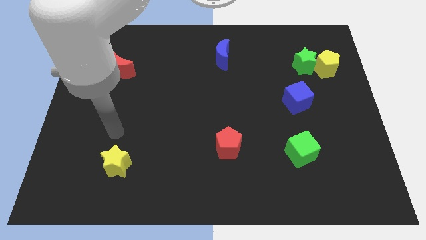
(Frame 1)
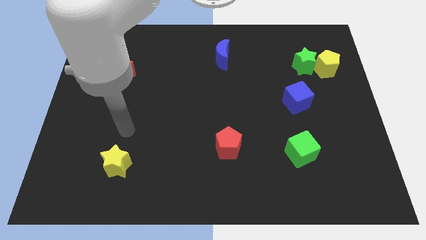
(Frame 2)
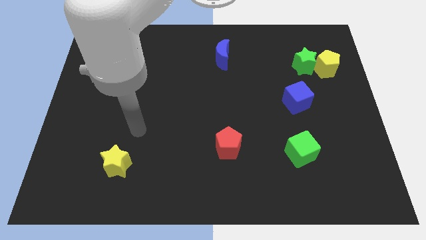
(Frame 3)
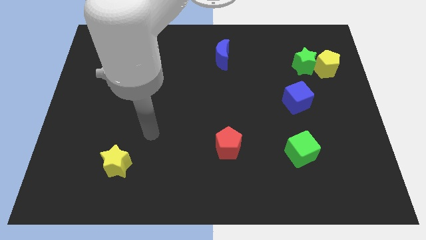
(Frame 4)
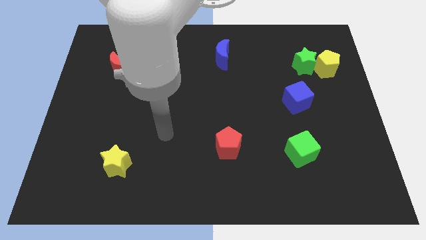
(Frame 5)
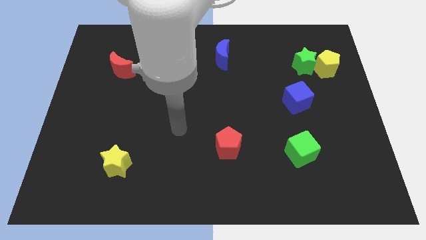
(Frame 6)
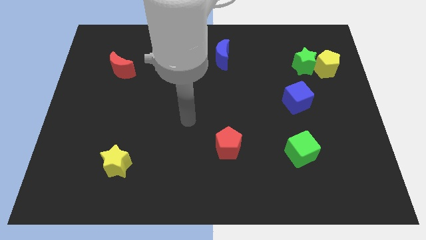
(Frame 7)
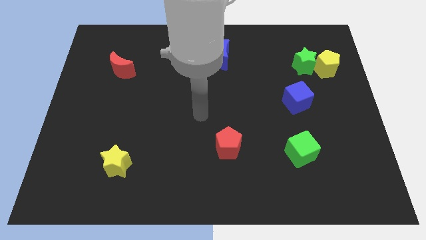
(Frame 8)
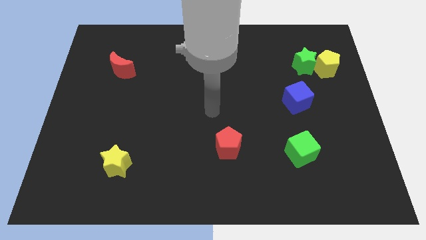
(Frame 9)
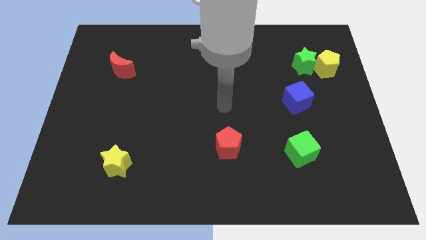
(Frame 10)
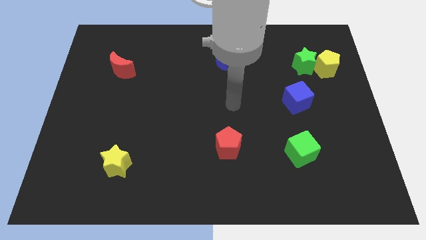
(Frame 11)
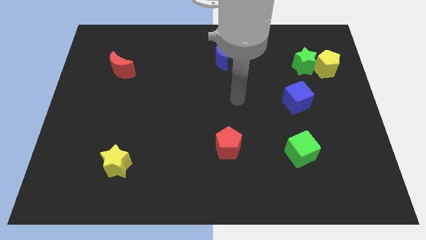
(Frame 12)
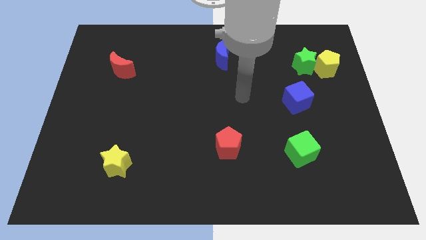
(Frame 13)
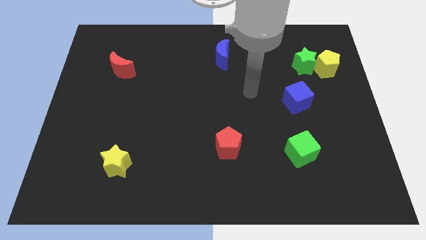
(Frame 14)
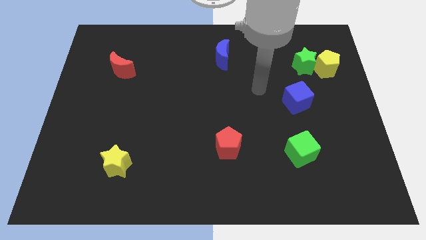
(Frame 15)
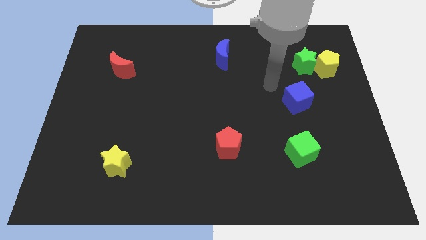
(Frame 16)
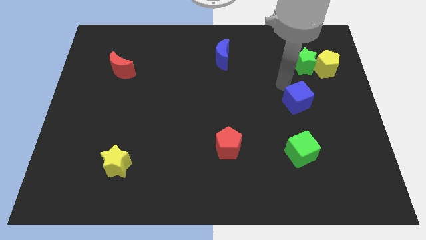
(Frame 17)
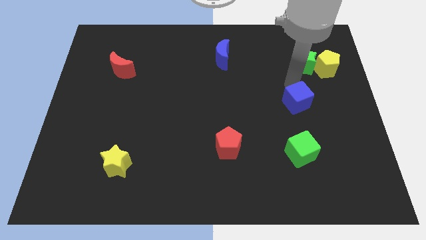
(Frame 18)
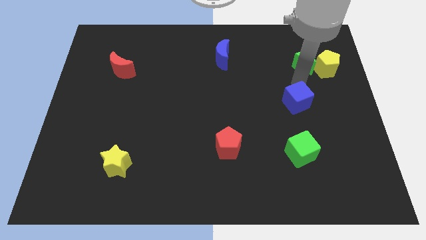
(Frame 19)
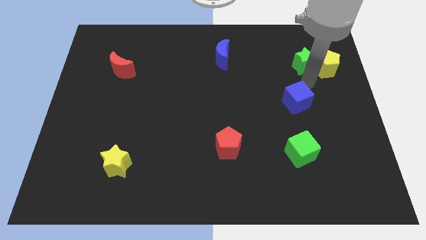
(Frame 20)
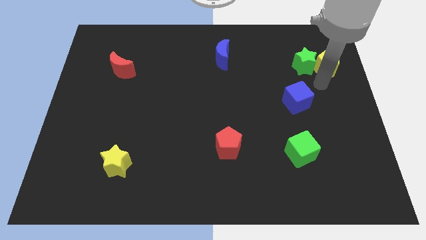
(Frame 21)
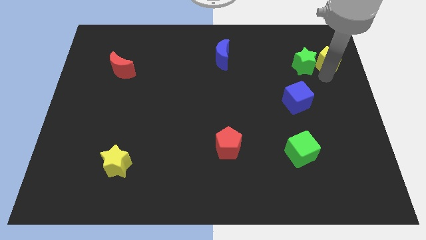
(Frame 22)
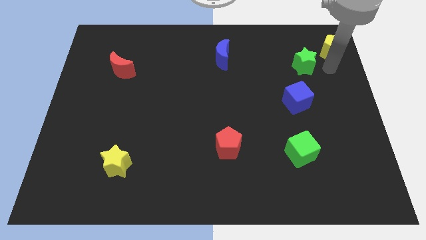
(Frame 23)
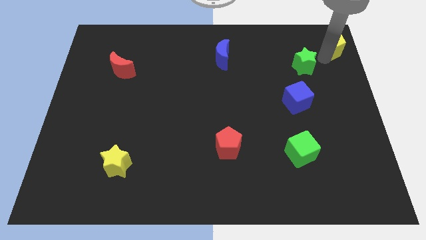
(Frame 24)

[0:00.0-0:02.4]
pull the green star apart from the yellow pentagon

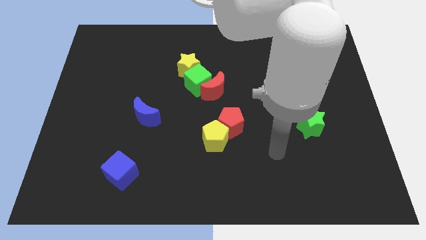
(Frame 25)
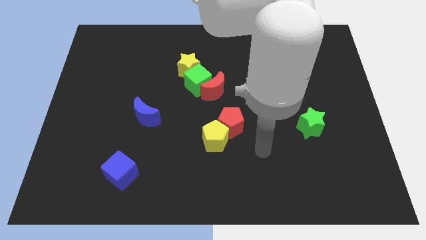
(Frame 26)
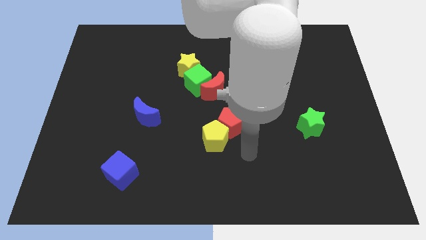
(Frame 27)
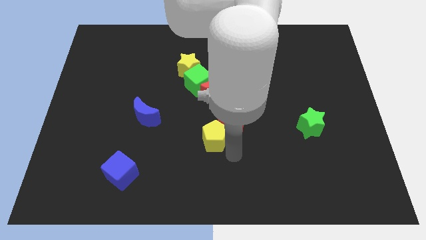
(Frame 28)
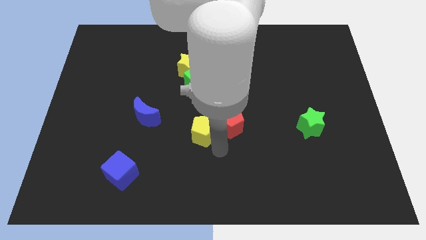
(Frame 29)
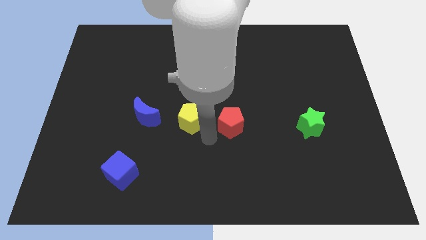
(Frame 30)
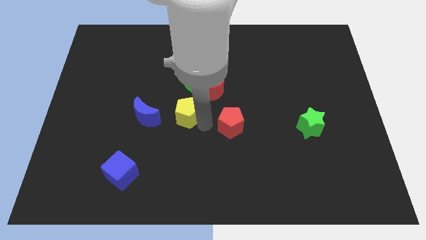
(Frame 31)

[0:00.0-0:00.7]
pull the red pentagon apart from the yellow pentagon

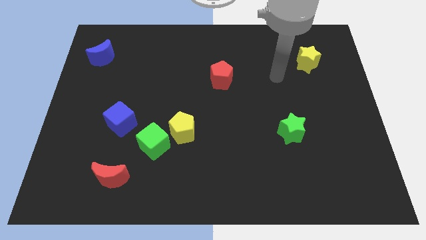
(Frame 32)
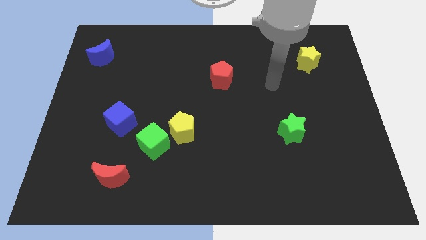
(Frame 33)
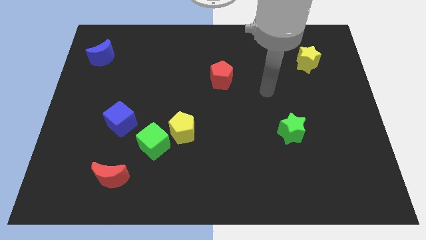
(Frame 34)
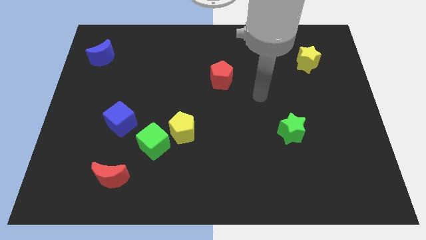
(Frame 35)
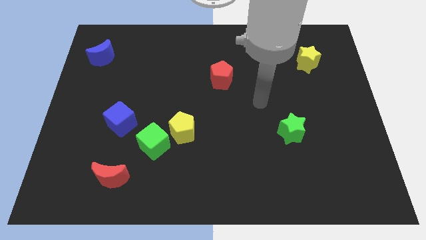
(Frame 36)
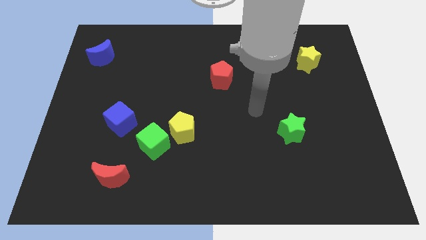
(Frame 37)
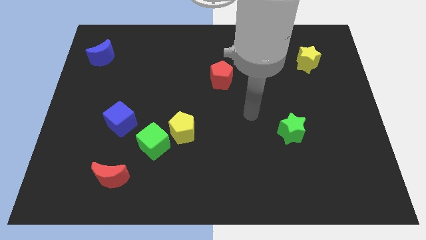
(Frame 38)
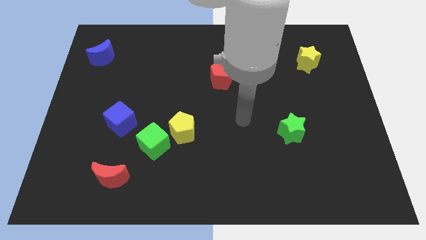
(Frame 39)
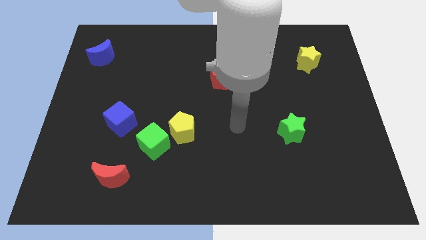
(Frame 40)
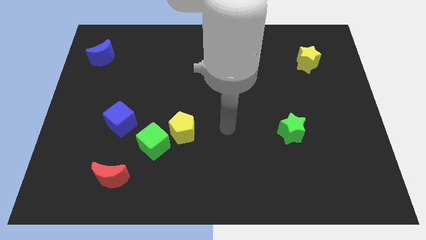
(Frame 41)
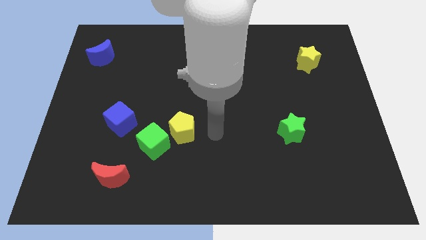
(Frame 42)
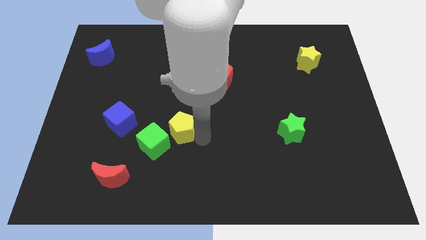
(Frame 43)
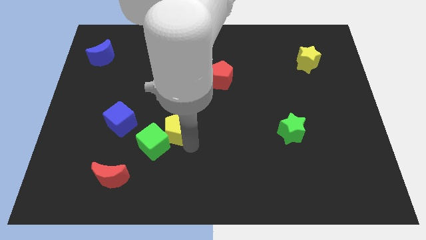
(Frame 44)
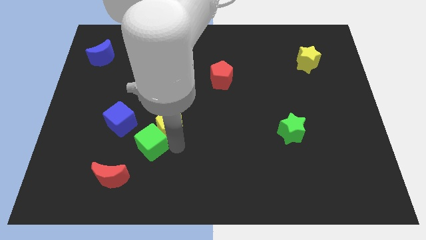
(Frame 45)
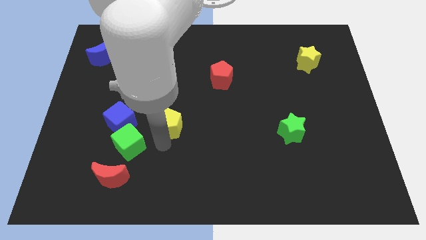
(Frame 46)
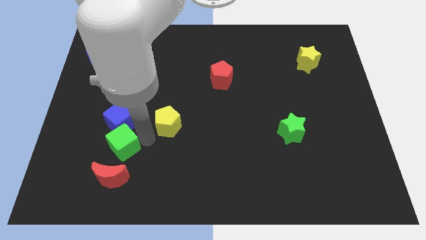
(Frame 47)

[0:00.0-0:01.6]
pull the yellow pentagon apart from the green cube

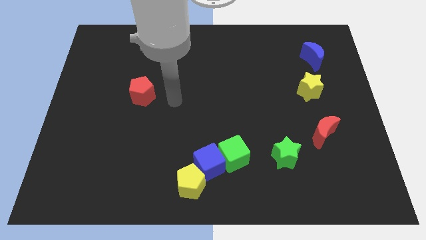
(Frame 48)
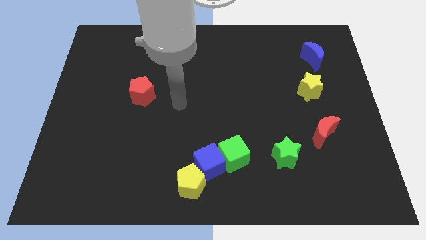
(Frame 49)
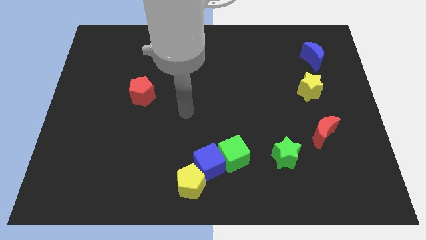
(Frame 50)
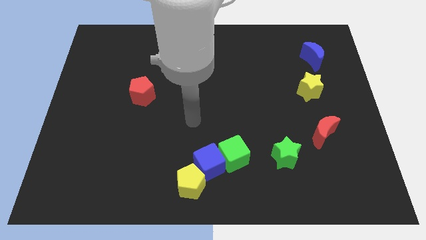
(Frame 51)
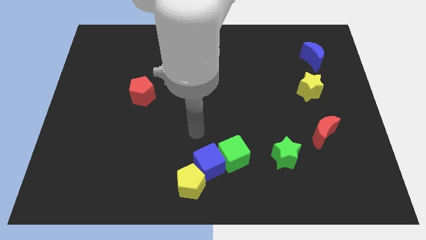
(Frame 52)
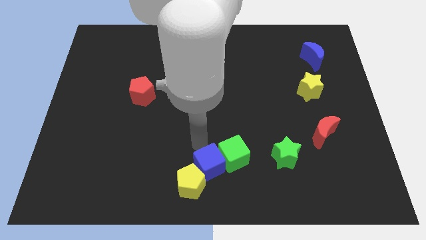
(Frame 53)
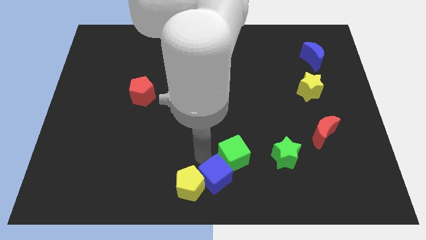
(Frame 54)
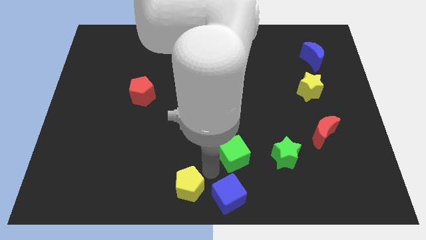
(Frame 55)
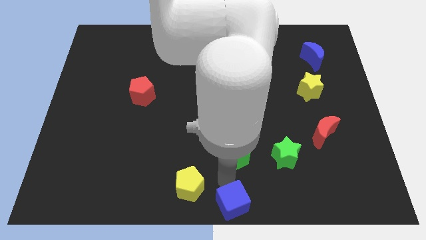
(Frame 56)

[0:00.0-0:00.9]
move the green cube away from the blue cube

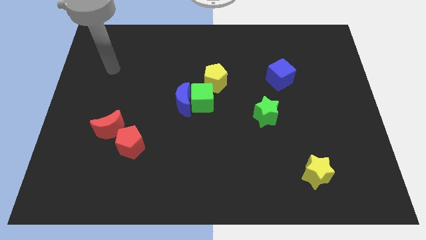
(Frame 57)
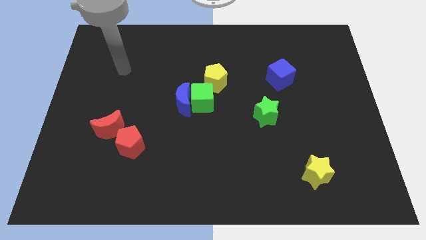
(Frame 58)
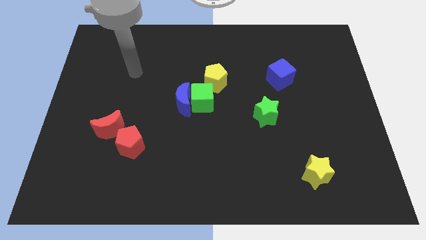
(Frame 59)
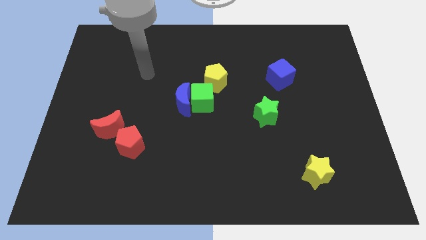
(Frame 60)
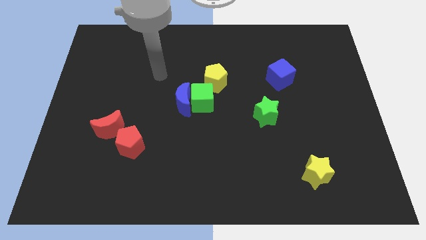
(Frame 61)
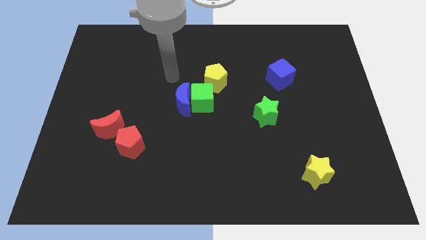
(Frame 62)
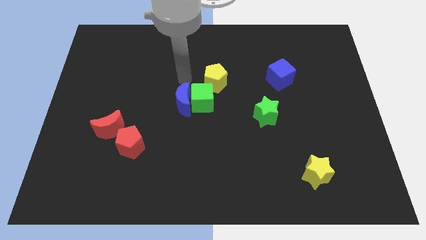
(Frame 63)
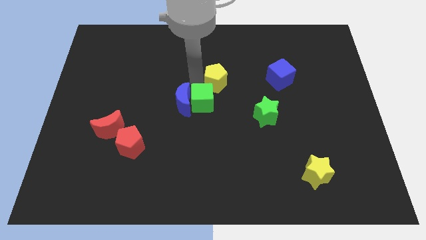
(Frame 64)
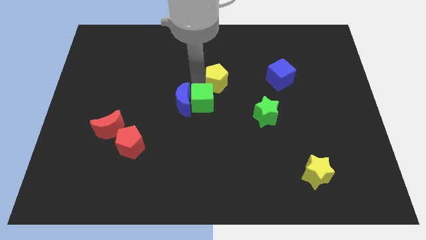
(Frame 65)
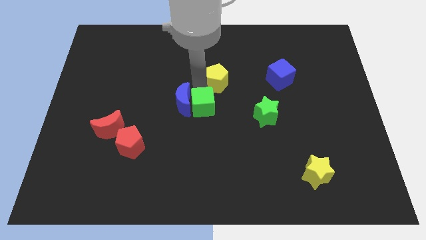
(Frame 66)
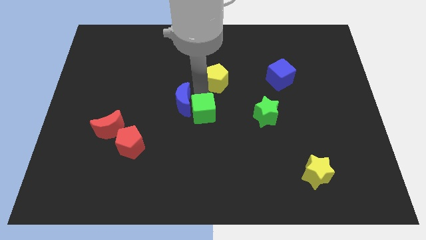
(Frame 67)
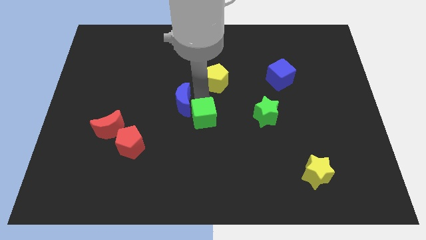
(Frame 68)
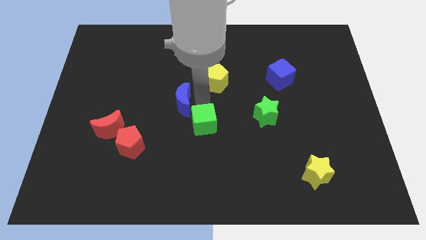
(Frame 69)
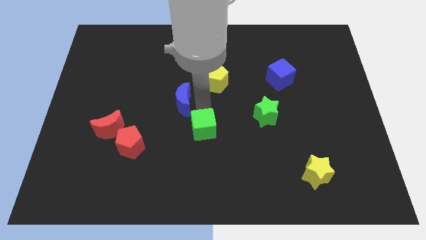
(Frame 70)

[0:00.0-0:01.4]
move the green cube away from the blue moon and yellow pentagon

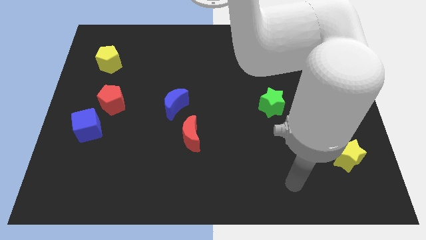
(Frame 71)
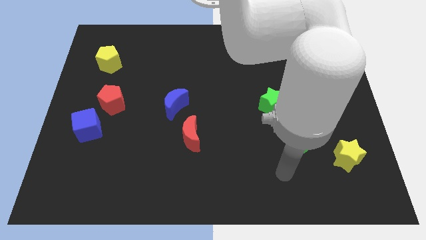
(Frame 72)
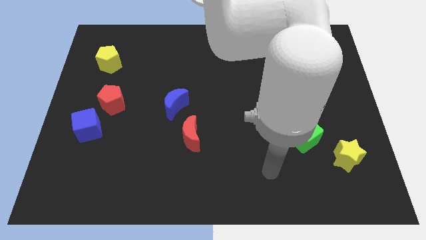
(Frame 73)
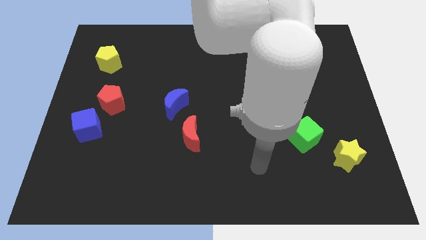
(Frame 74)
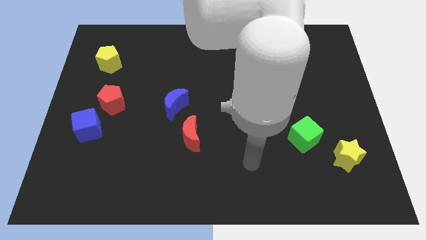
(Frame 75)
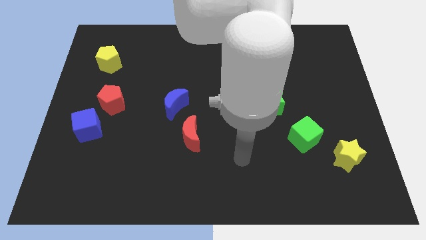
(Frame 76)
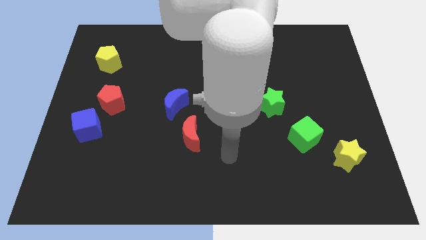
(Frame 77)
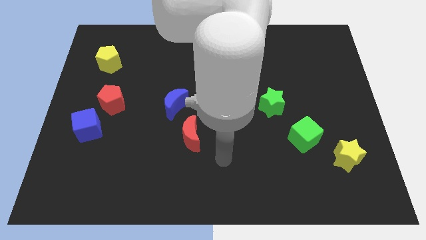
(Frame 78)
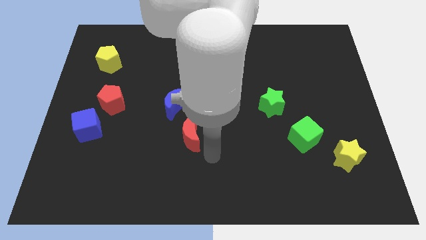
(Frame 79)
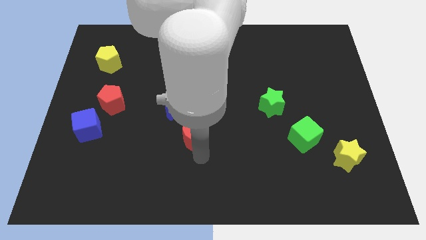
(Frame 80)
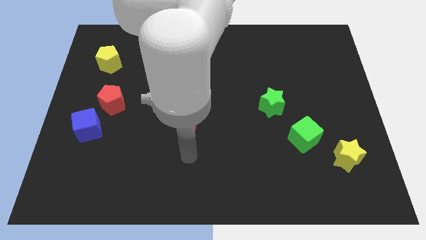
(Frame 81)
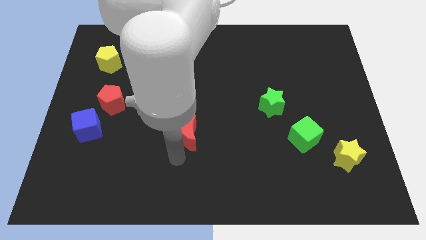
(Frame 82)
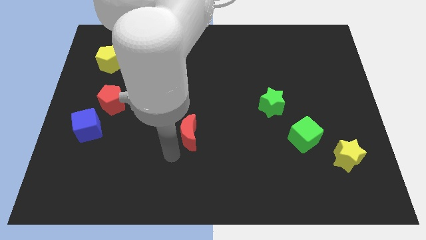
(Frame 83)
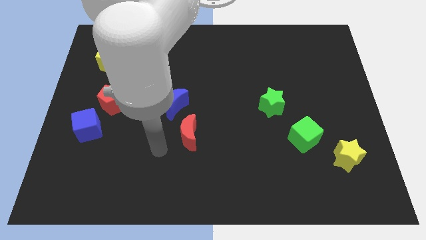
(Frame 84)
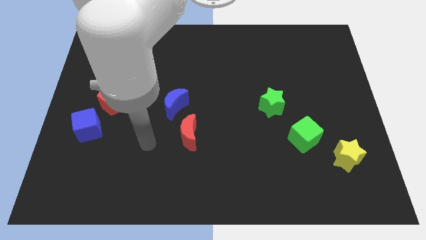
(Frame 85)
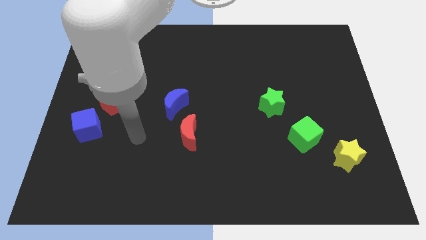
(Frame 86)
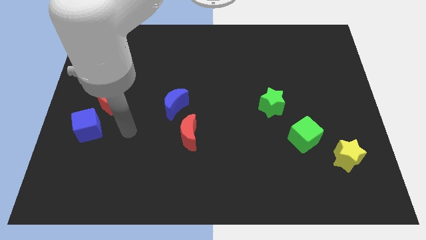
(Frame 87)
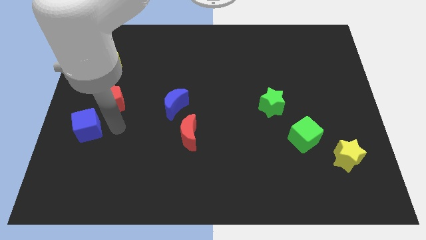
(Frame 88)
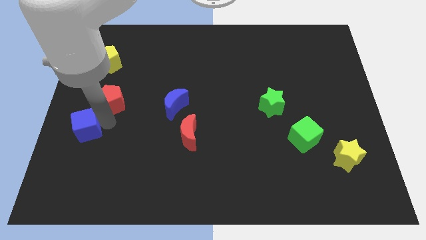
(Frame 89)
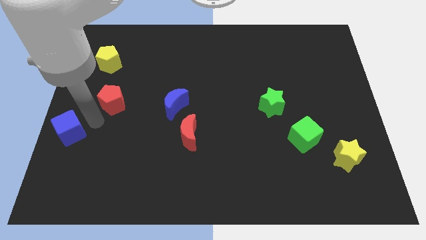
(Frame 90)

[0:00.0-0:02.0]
pull the red pentagon apart from the blue cube

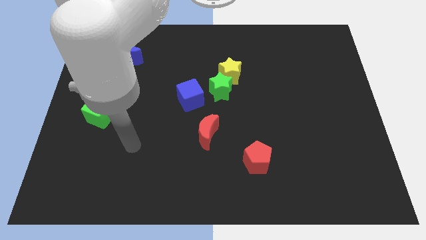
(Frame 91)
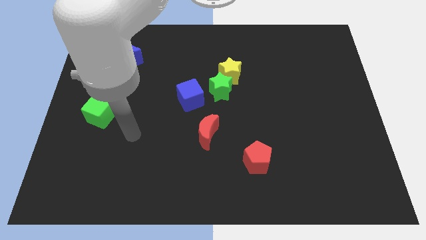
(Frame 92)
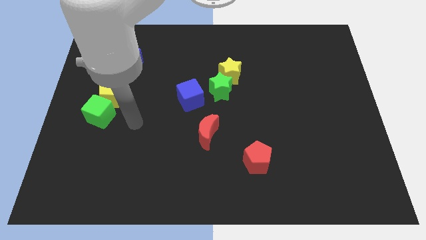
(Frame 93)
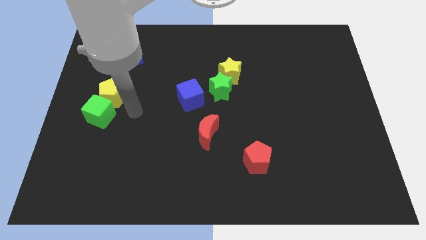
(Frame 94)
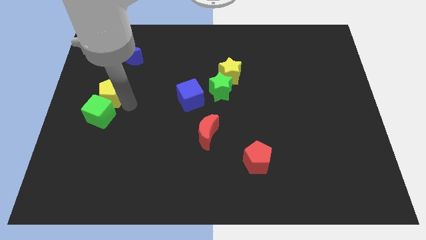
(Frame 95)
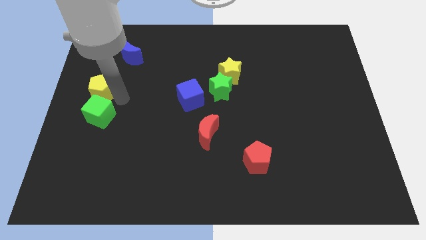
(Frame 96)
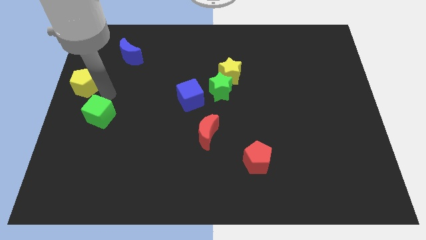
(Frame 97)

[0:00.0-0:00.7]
separate the green cube from the yellow pentagon
